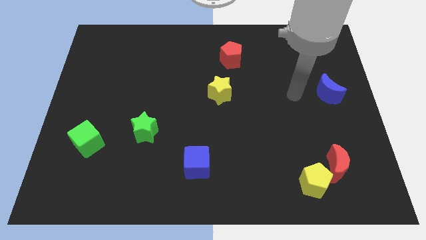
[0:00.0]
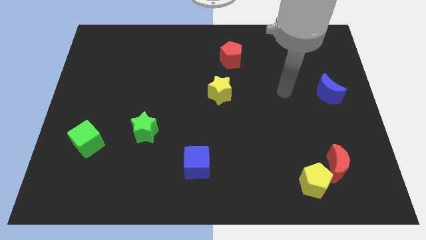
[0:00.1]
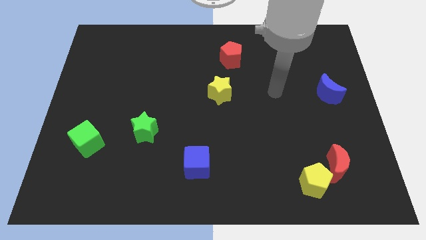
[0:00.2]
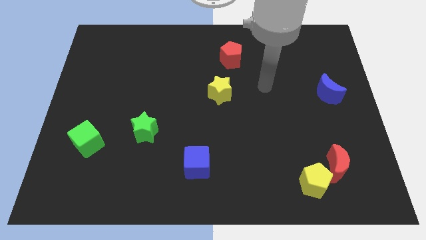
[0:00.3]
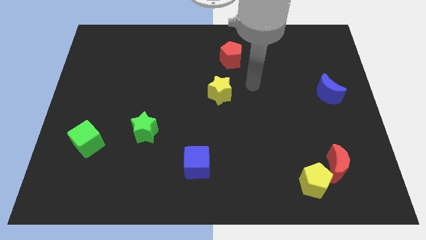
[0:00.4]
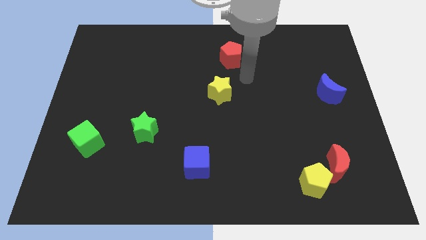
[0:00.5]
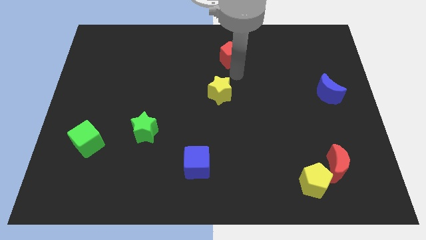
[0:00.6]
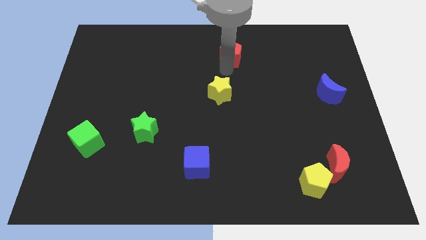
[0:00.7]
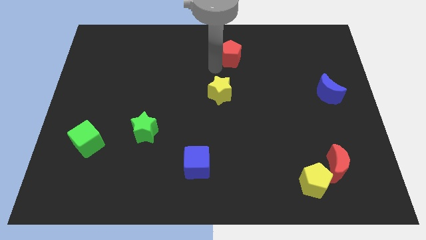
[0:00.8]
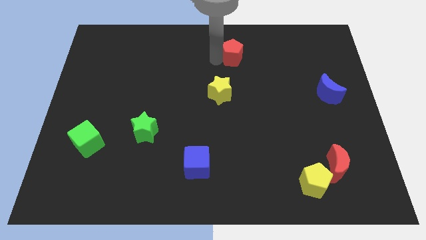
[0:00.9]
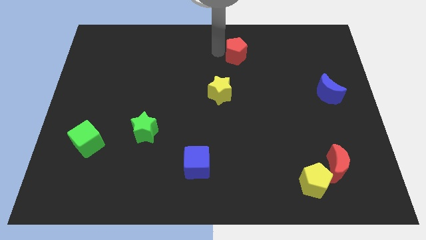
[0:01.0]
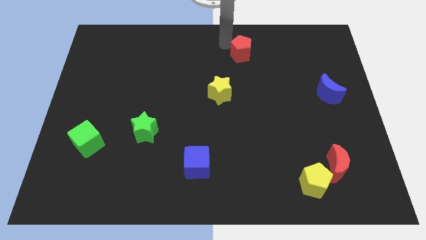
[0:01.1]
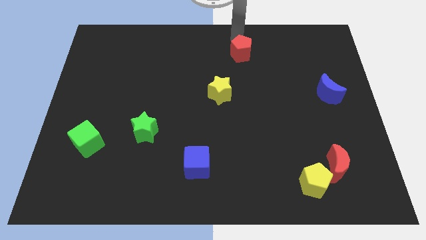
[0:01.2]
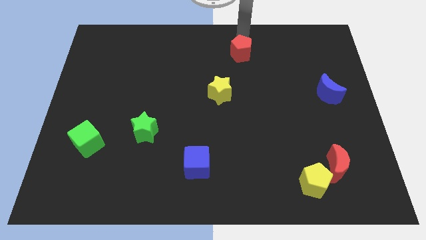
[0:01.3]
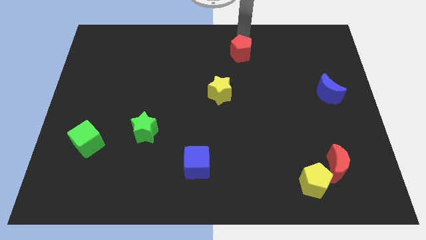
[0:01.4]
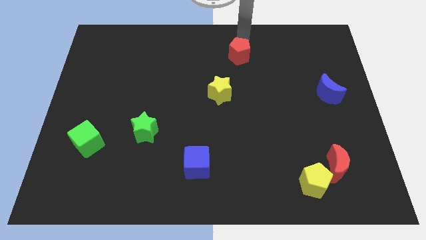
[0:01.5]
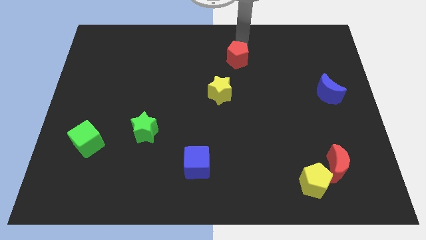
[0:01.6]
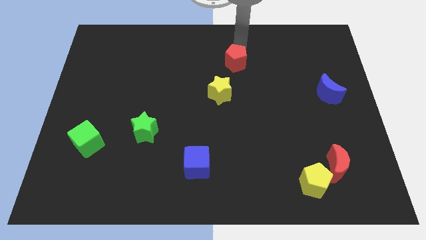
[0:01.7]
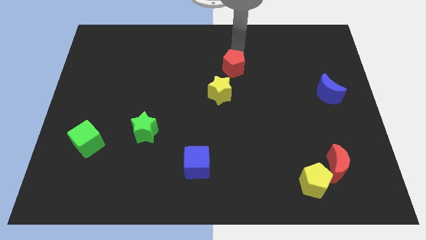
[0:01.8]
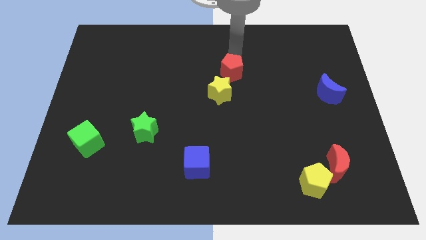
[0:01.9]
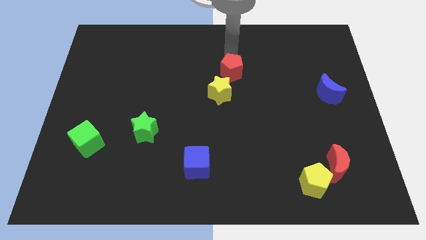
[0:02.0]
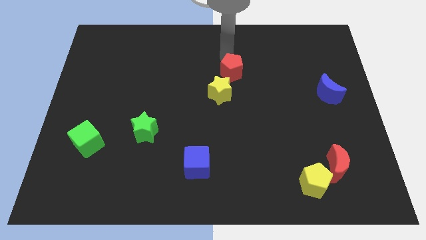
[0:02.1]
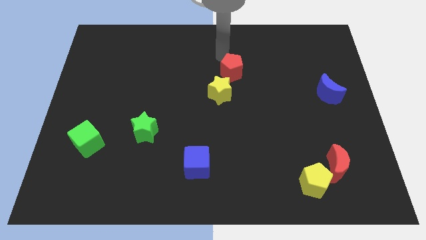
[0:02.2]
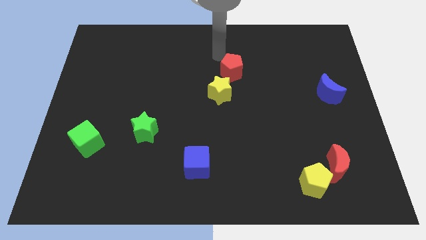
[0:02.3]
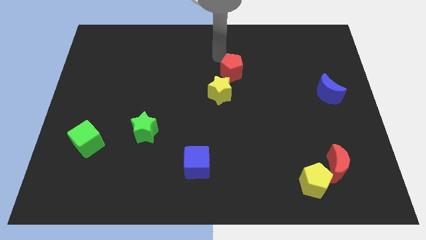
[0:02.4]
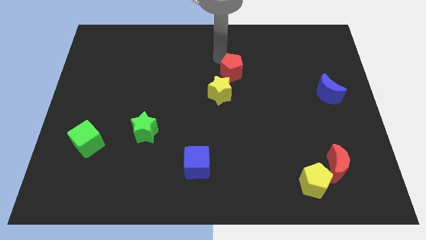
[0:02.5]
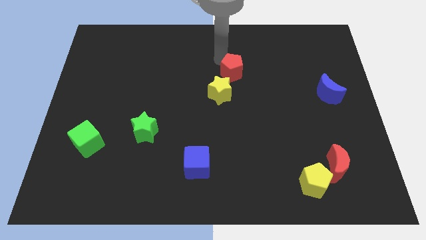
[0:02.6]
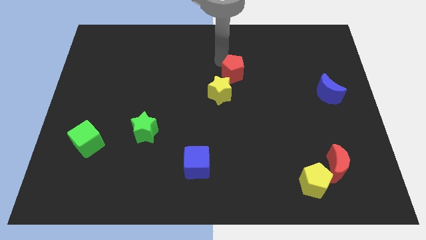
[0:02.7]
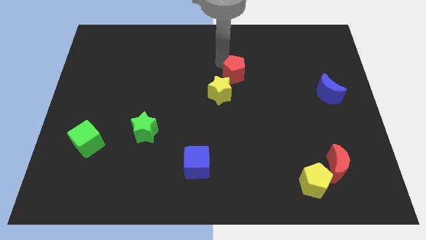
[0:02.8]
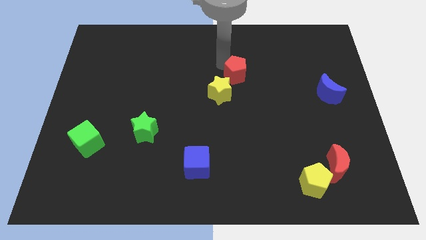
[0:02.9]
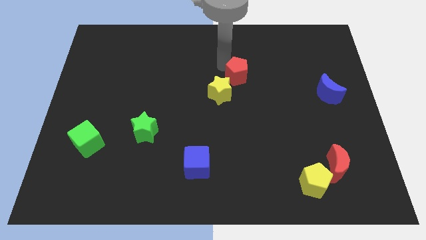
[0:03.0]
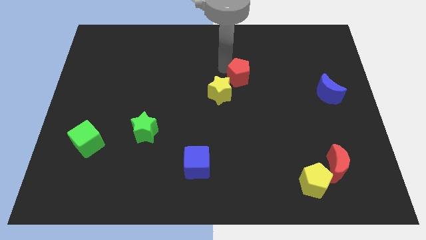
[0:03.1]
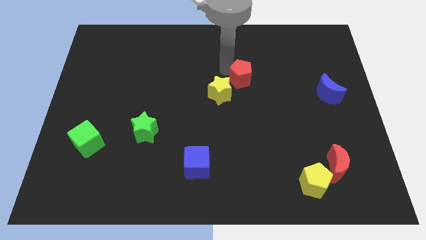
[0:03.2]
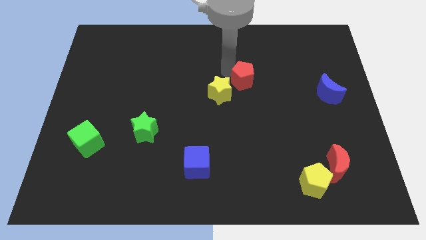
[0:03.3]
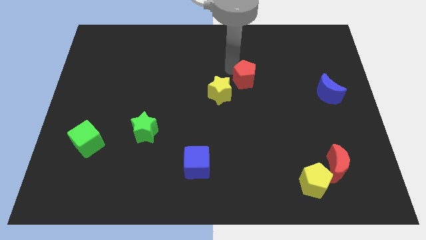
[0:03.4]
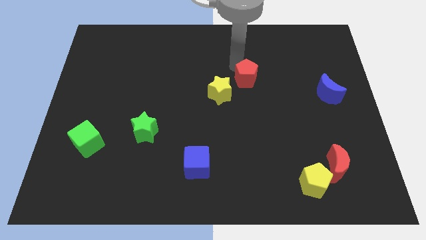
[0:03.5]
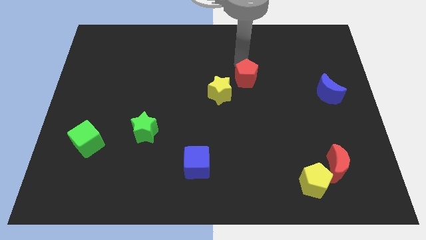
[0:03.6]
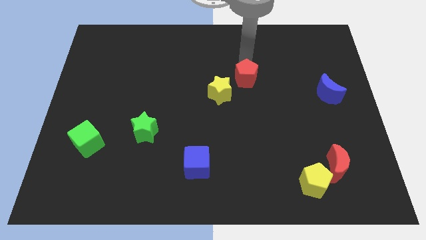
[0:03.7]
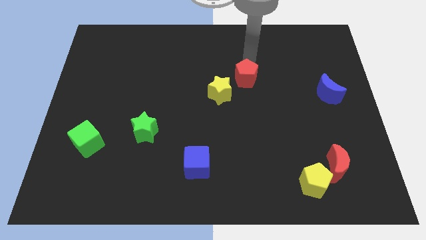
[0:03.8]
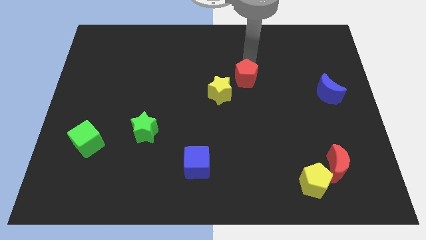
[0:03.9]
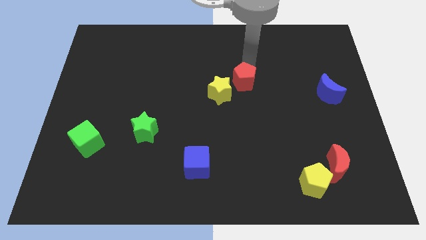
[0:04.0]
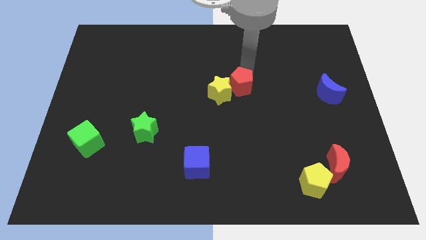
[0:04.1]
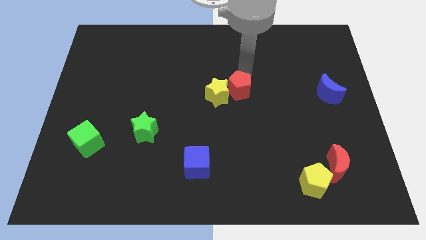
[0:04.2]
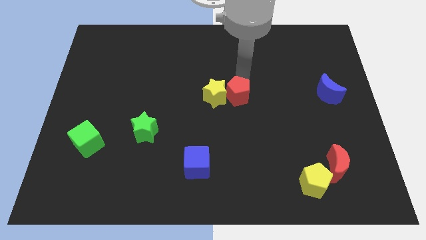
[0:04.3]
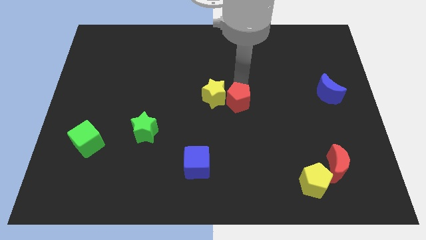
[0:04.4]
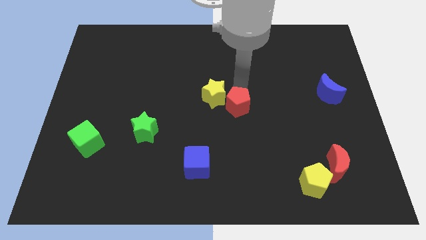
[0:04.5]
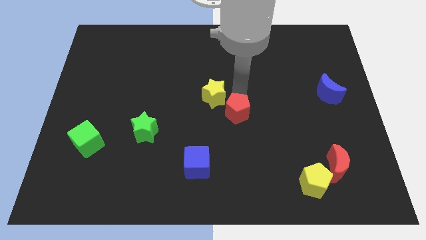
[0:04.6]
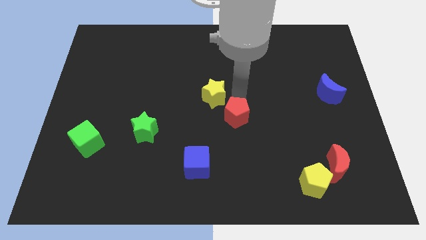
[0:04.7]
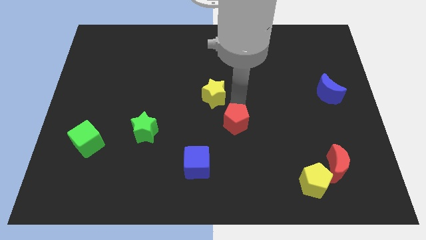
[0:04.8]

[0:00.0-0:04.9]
move the red pentagon downwards

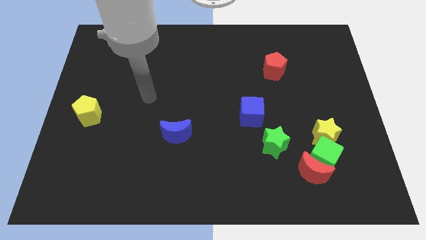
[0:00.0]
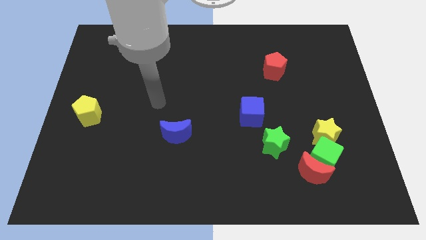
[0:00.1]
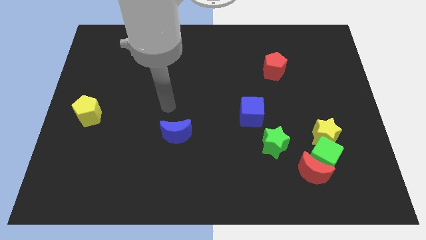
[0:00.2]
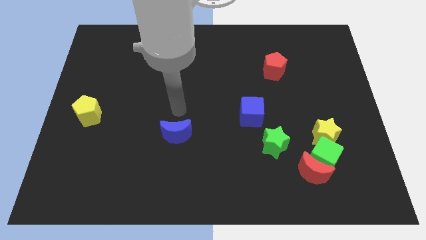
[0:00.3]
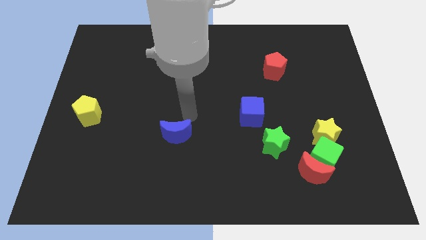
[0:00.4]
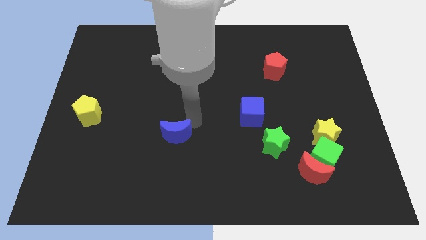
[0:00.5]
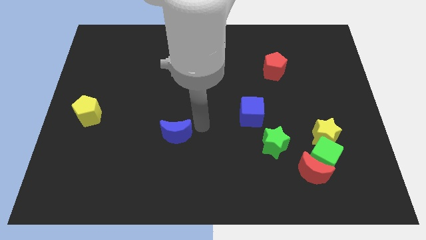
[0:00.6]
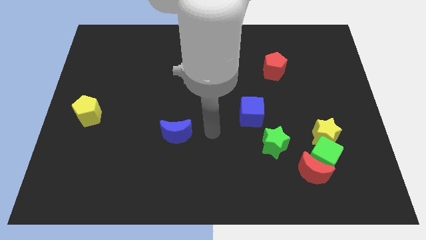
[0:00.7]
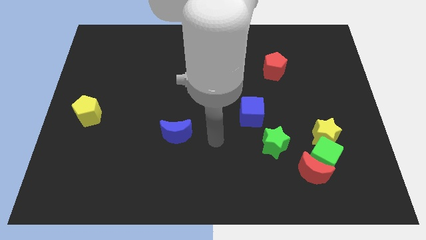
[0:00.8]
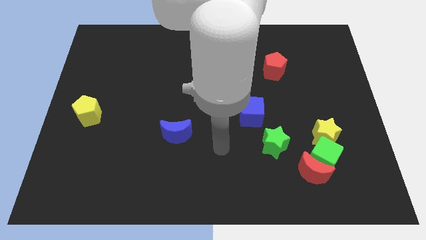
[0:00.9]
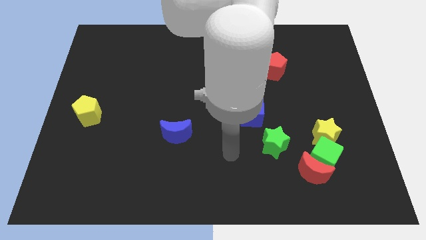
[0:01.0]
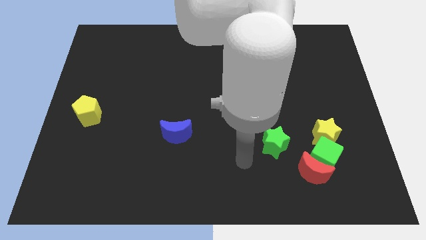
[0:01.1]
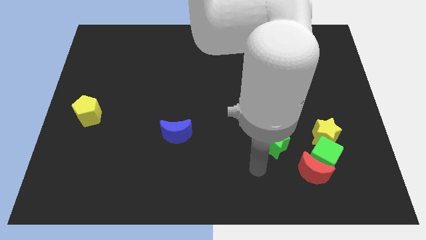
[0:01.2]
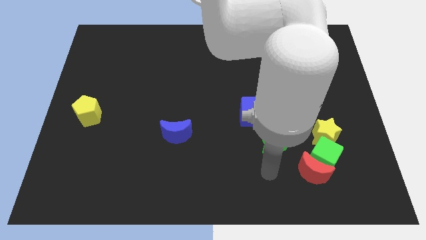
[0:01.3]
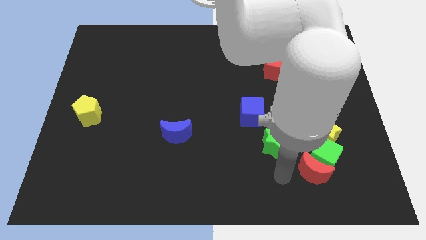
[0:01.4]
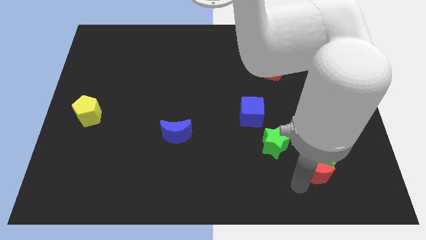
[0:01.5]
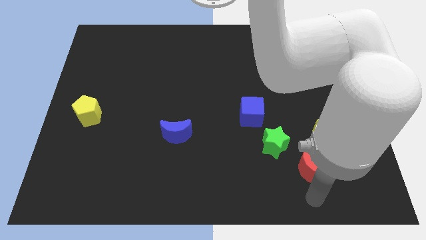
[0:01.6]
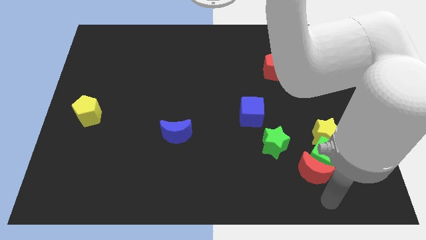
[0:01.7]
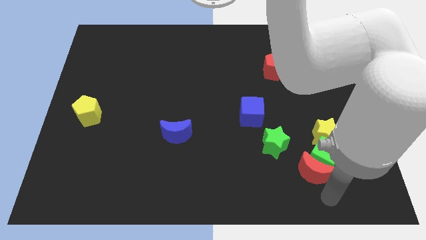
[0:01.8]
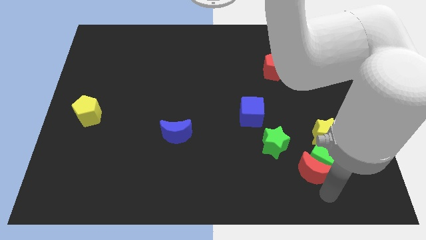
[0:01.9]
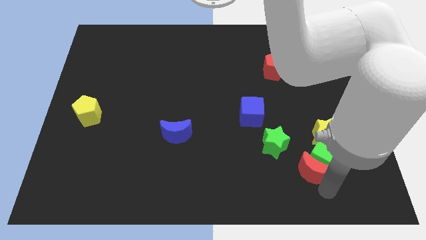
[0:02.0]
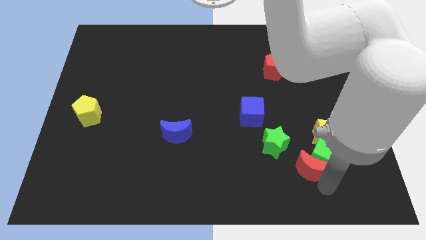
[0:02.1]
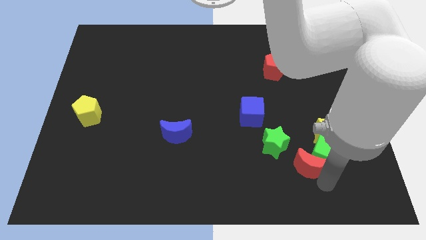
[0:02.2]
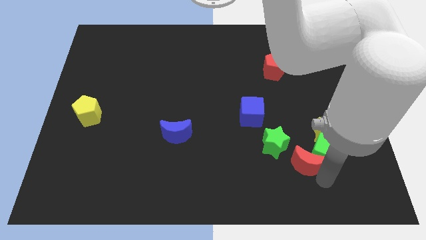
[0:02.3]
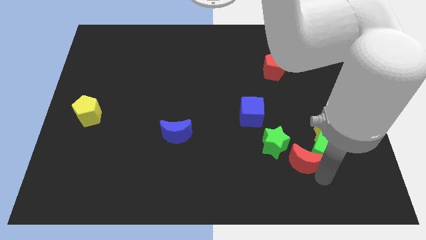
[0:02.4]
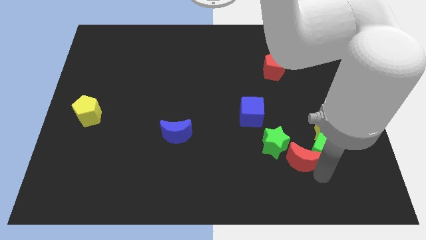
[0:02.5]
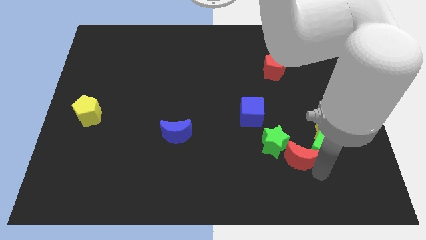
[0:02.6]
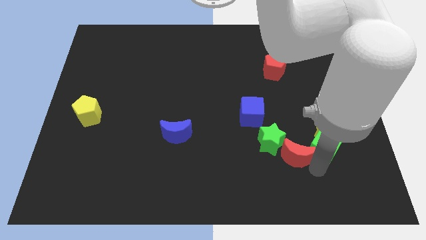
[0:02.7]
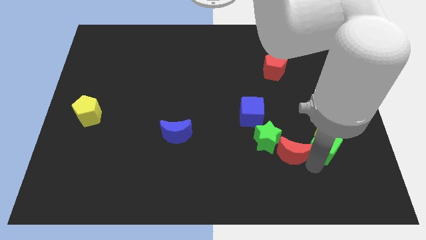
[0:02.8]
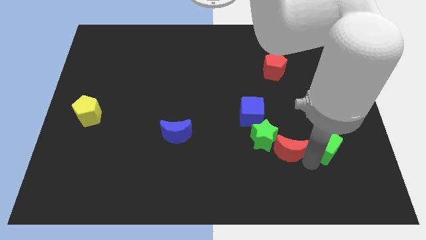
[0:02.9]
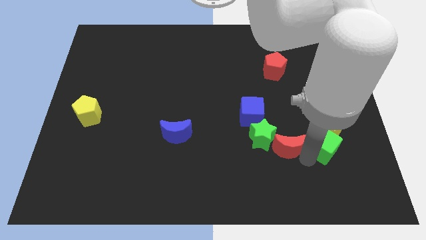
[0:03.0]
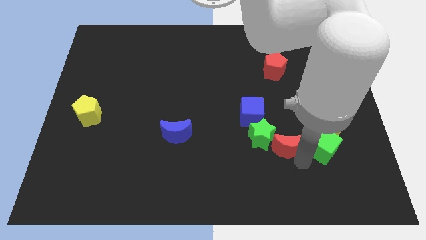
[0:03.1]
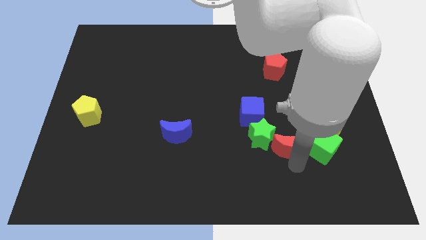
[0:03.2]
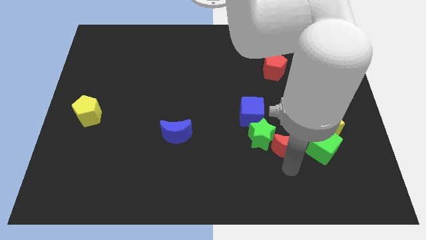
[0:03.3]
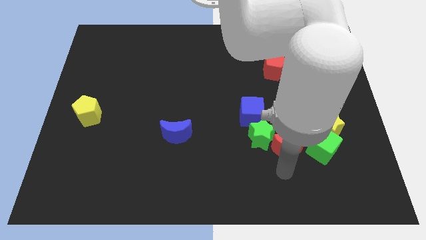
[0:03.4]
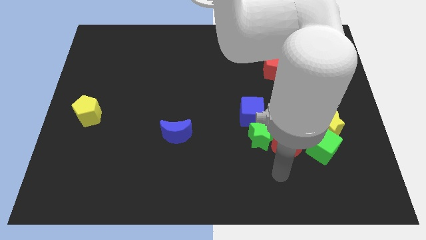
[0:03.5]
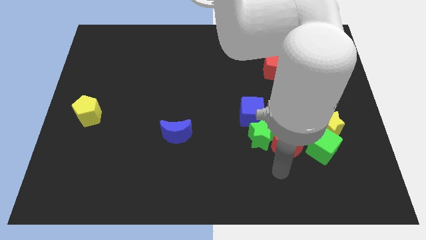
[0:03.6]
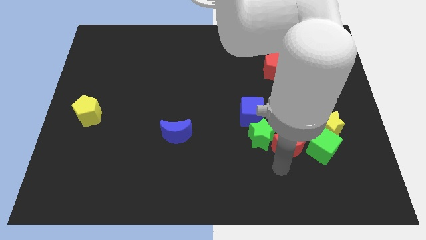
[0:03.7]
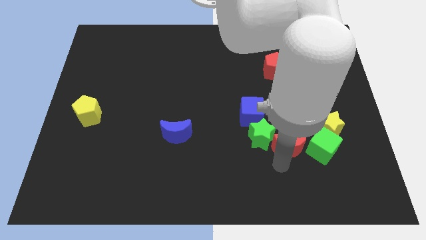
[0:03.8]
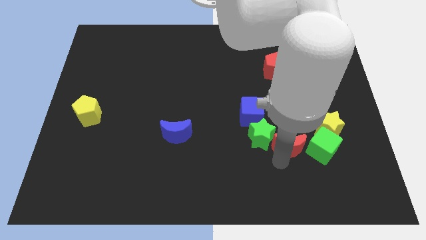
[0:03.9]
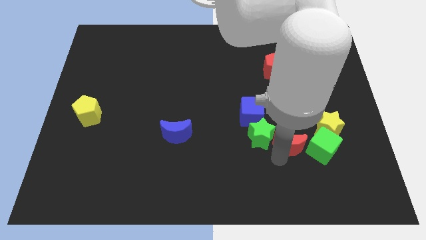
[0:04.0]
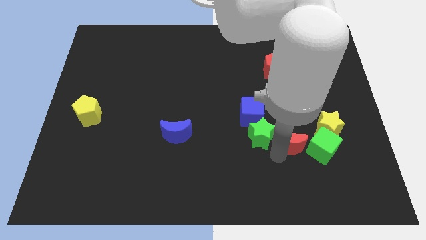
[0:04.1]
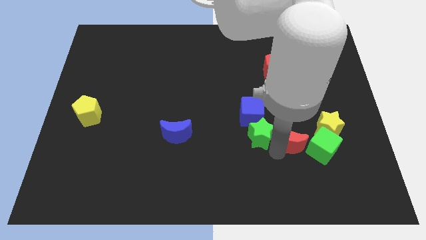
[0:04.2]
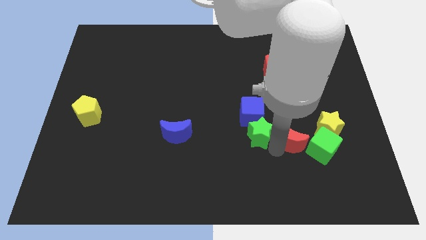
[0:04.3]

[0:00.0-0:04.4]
slightly move the red moon up
